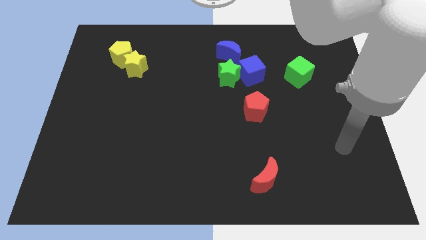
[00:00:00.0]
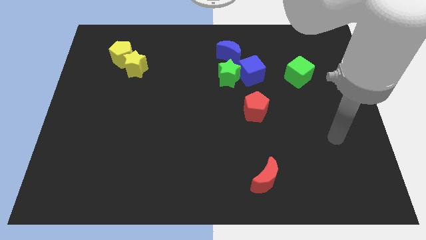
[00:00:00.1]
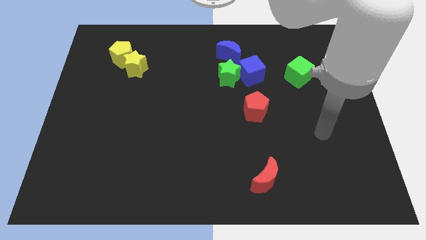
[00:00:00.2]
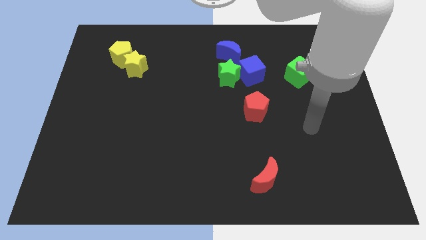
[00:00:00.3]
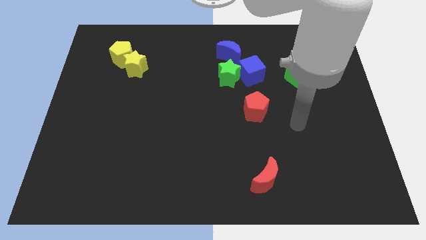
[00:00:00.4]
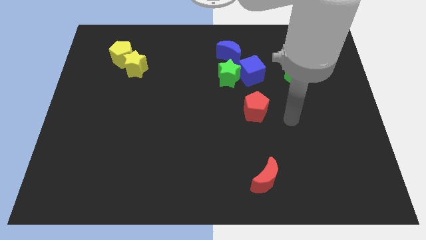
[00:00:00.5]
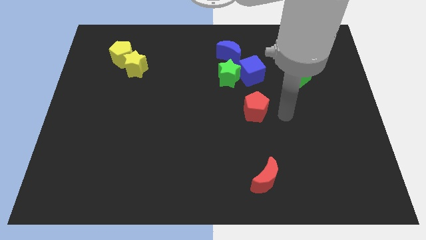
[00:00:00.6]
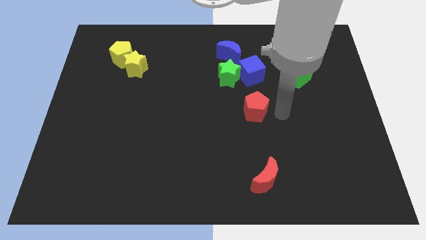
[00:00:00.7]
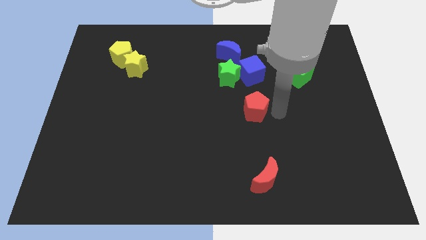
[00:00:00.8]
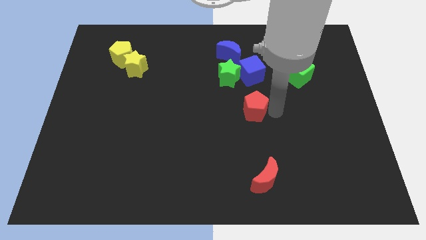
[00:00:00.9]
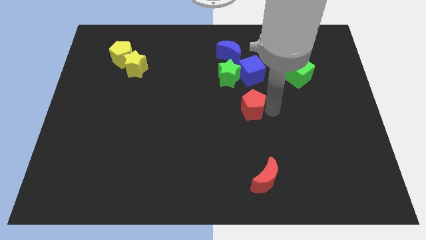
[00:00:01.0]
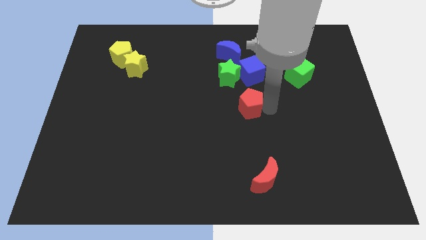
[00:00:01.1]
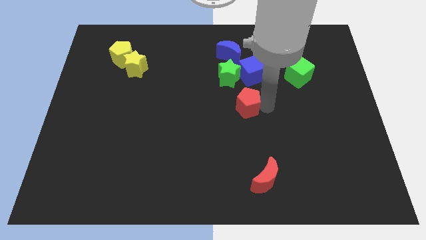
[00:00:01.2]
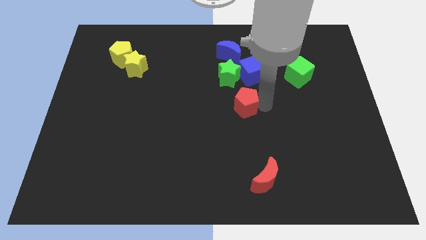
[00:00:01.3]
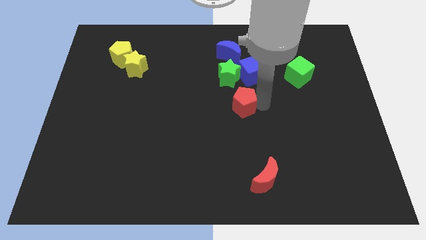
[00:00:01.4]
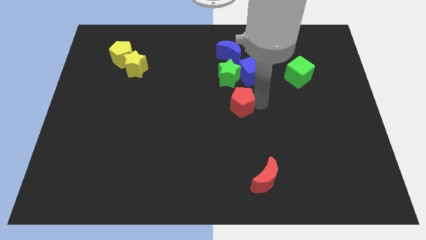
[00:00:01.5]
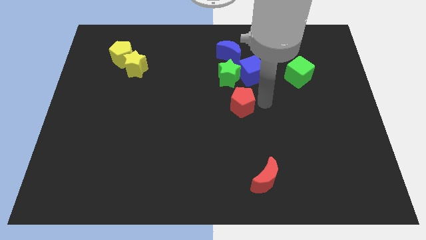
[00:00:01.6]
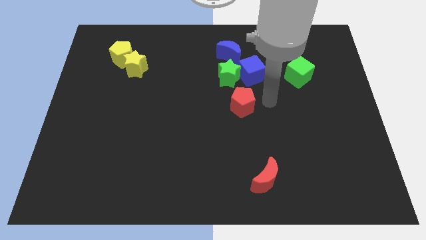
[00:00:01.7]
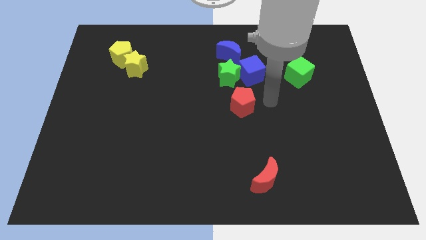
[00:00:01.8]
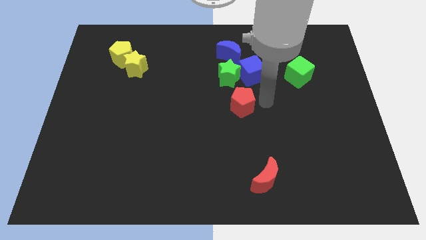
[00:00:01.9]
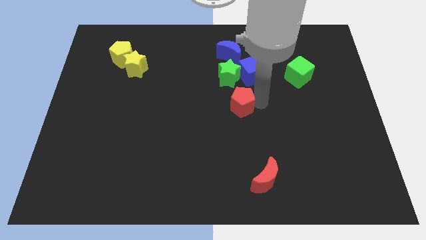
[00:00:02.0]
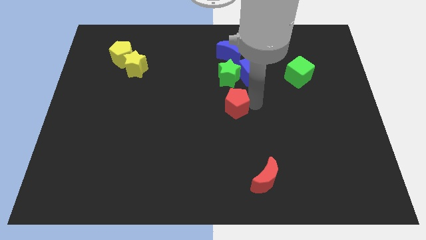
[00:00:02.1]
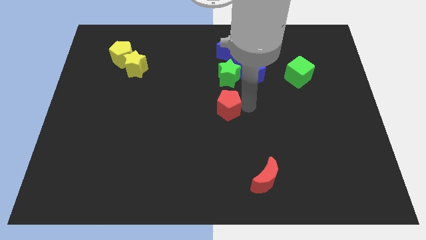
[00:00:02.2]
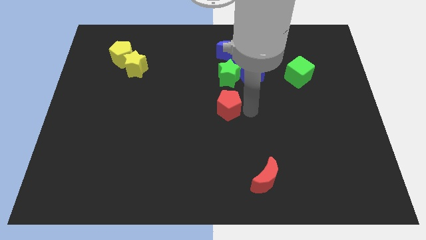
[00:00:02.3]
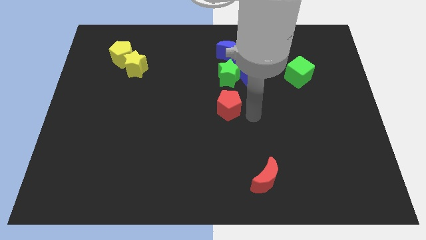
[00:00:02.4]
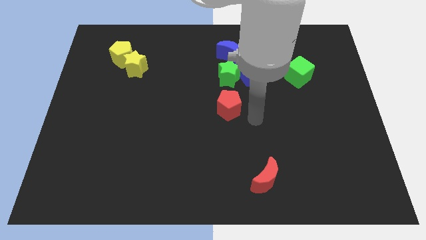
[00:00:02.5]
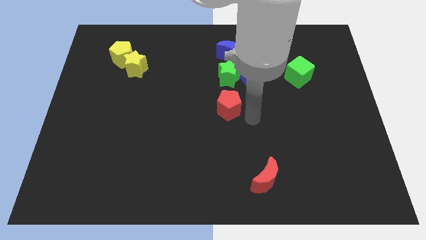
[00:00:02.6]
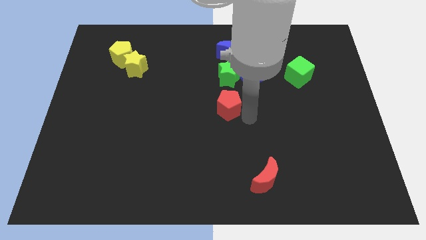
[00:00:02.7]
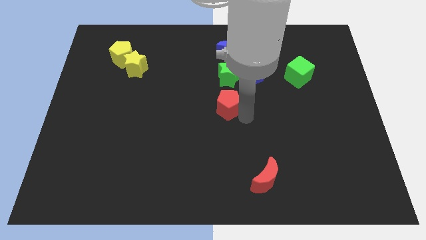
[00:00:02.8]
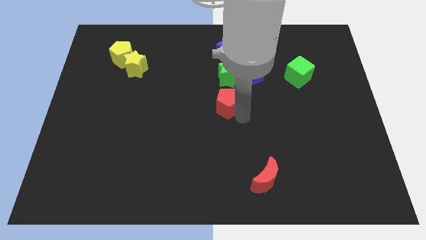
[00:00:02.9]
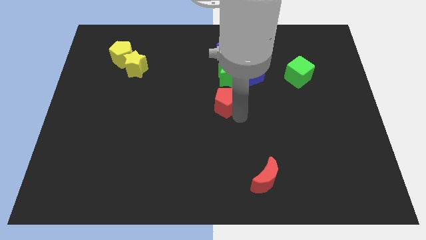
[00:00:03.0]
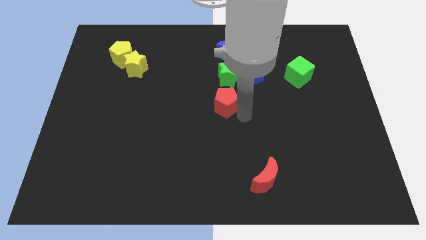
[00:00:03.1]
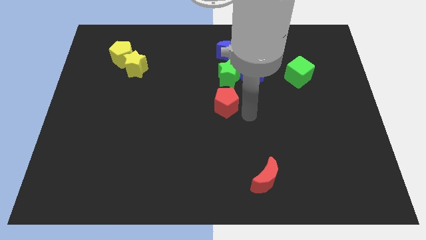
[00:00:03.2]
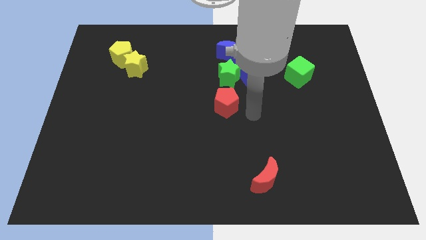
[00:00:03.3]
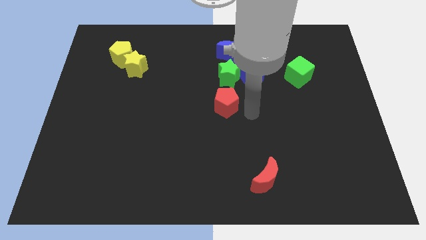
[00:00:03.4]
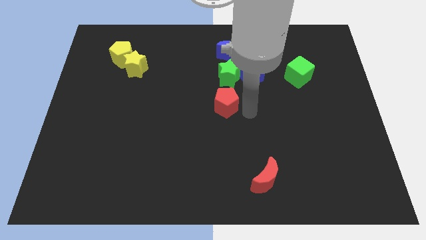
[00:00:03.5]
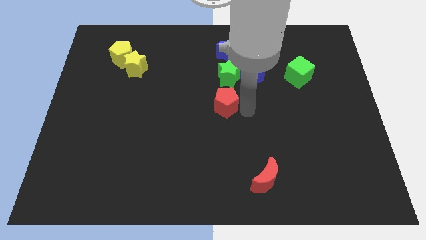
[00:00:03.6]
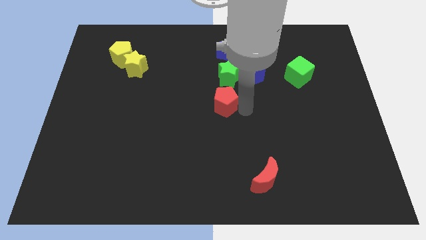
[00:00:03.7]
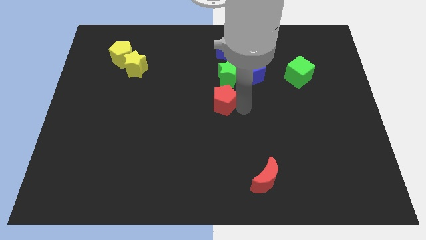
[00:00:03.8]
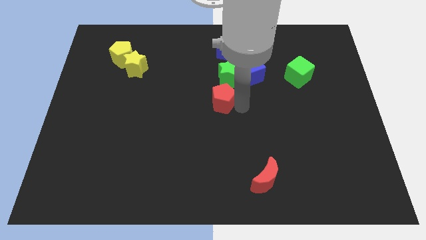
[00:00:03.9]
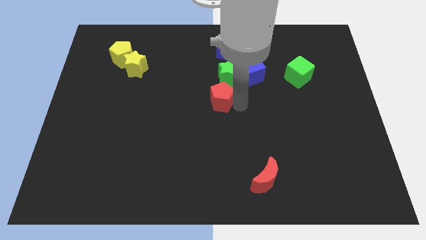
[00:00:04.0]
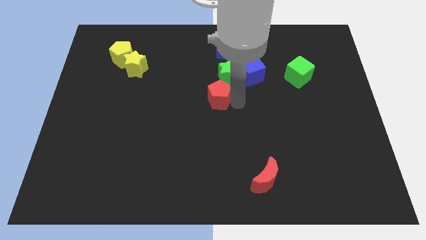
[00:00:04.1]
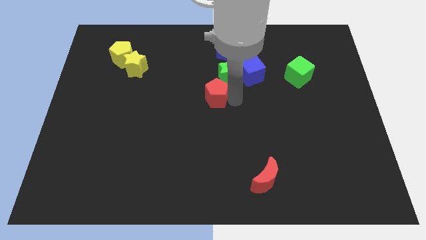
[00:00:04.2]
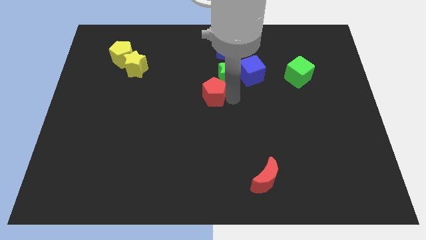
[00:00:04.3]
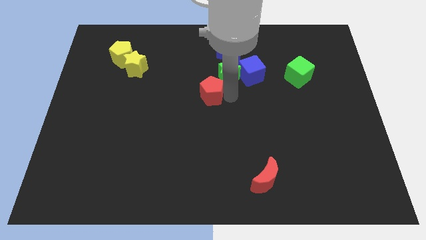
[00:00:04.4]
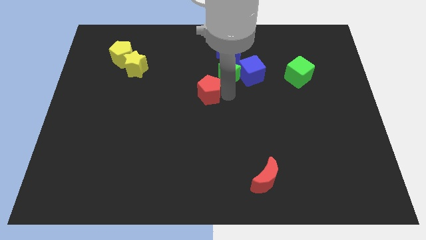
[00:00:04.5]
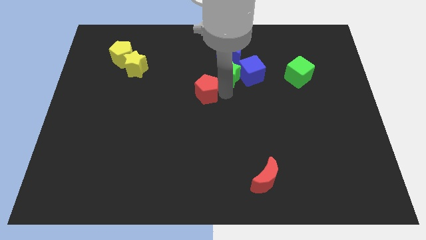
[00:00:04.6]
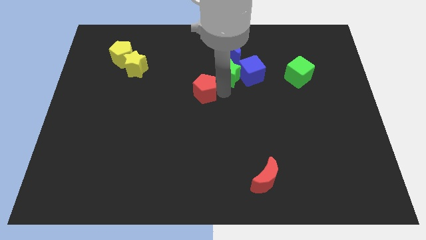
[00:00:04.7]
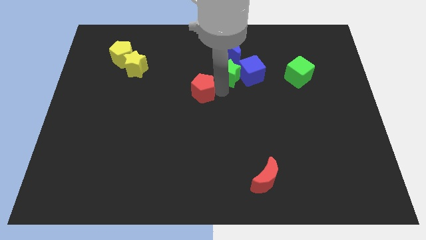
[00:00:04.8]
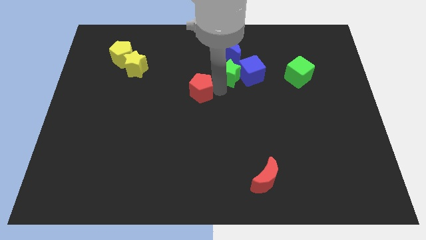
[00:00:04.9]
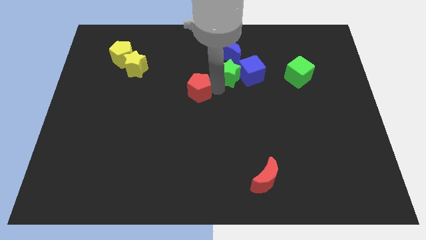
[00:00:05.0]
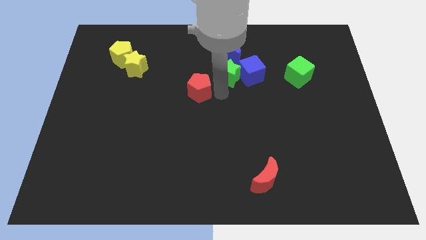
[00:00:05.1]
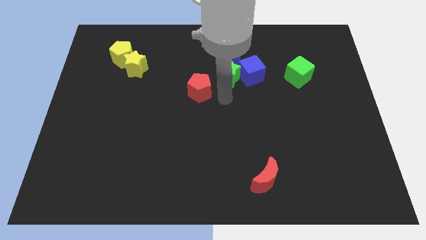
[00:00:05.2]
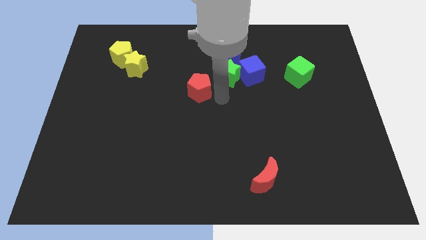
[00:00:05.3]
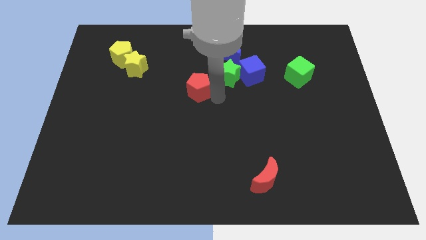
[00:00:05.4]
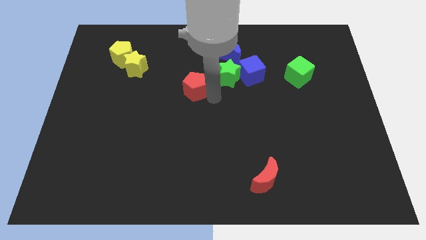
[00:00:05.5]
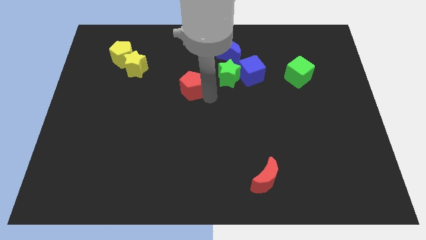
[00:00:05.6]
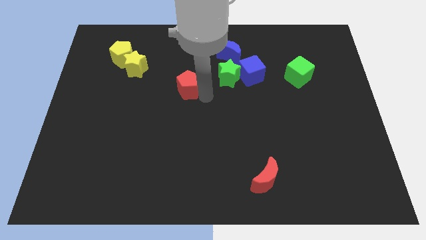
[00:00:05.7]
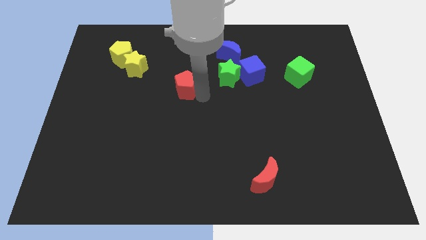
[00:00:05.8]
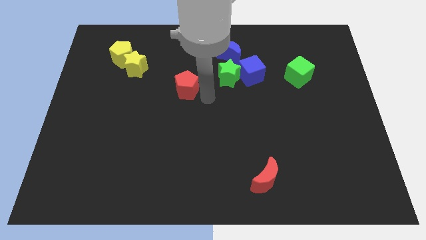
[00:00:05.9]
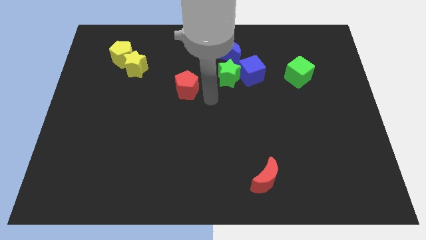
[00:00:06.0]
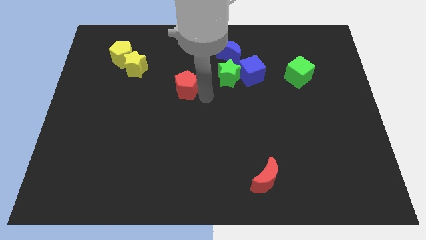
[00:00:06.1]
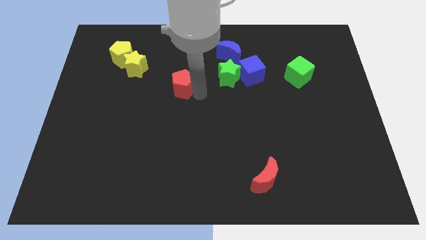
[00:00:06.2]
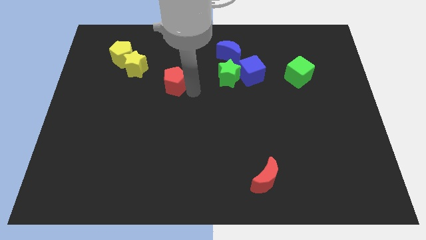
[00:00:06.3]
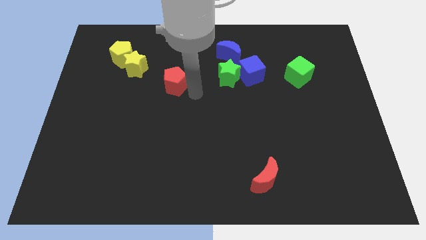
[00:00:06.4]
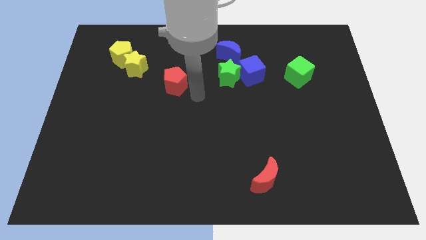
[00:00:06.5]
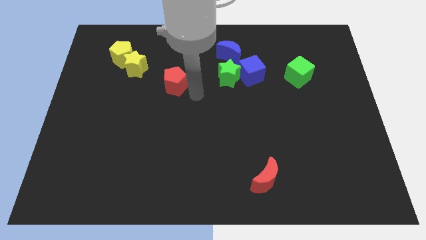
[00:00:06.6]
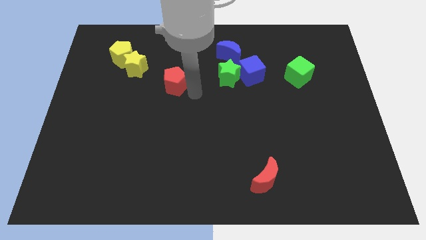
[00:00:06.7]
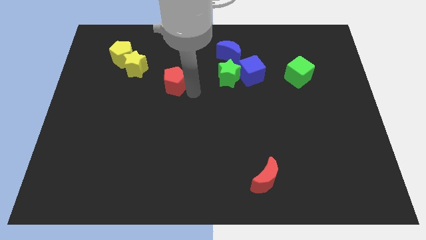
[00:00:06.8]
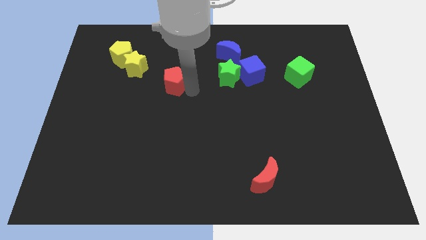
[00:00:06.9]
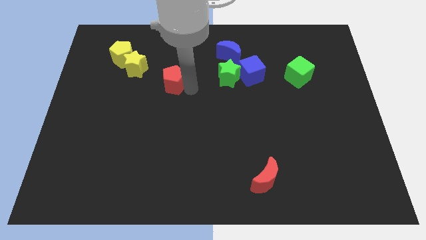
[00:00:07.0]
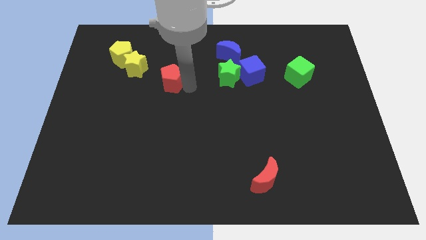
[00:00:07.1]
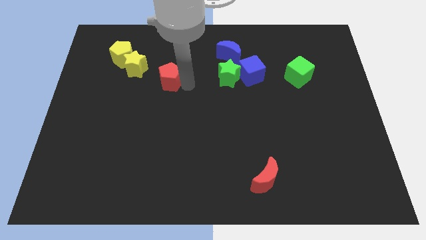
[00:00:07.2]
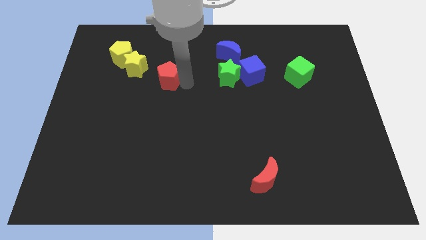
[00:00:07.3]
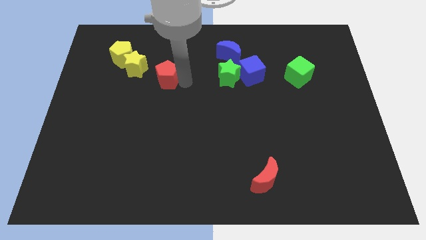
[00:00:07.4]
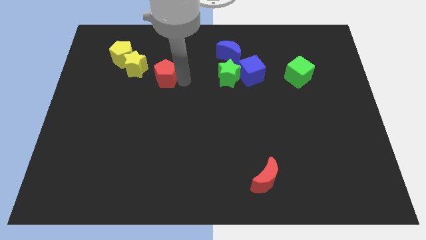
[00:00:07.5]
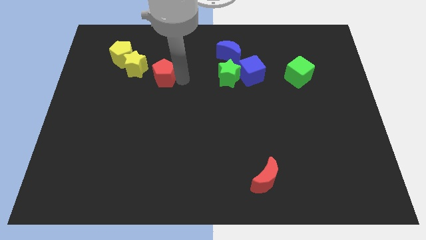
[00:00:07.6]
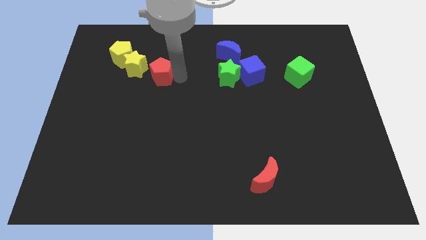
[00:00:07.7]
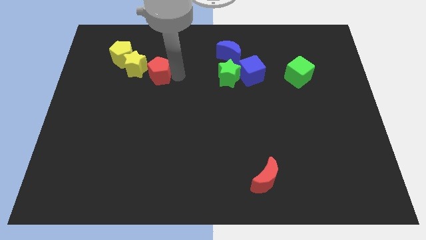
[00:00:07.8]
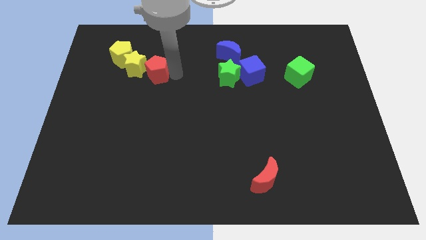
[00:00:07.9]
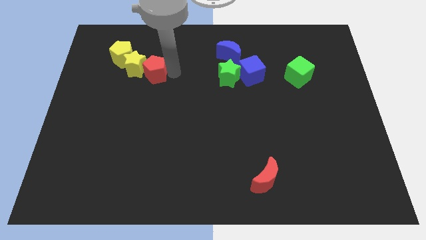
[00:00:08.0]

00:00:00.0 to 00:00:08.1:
put the red pentagon close to the yellow star
